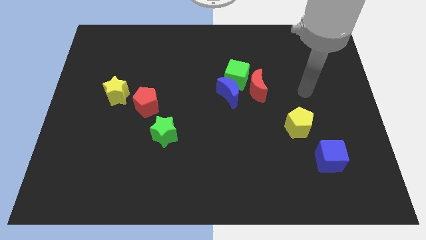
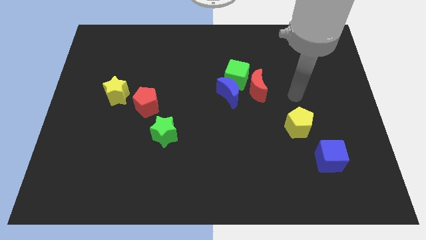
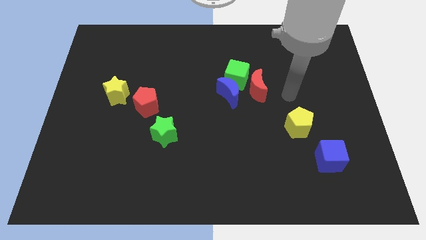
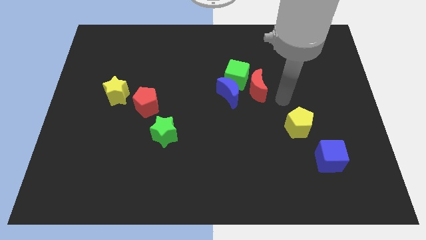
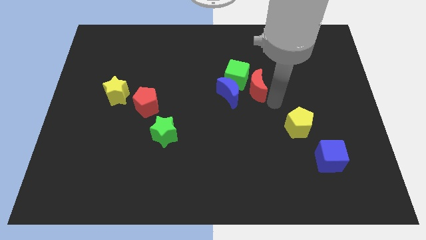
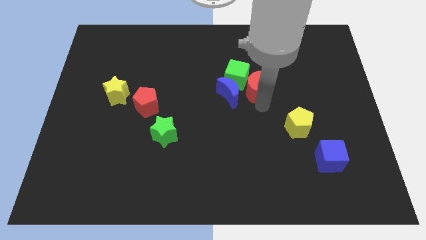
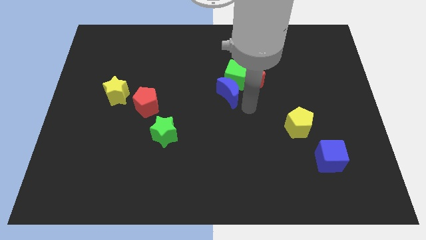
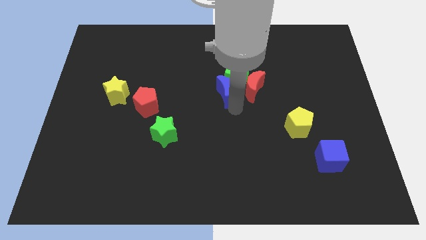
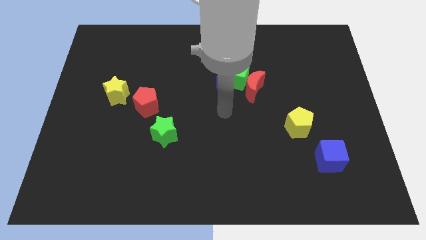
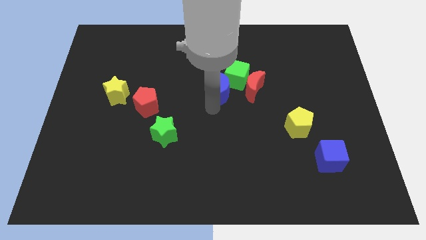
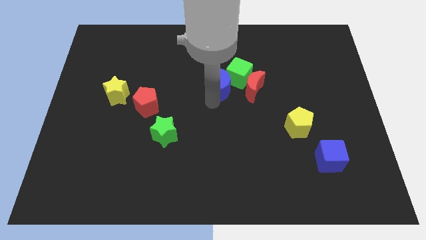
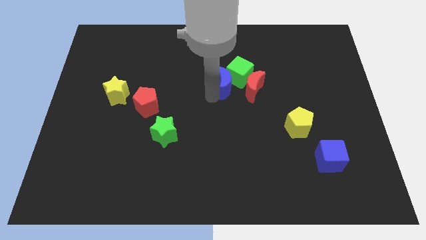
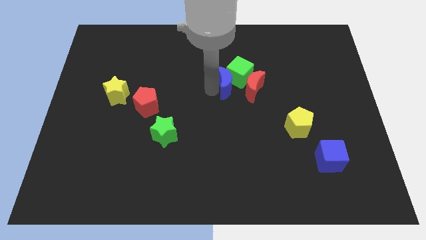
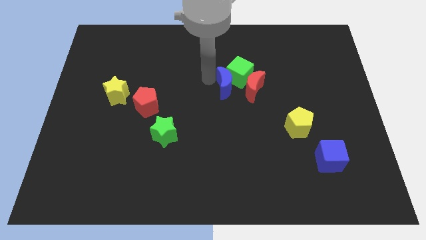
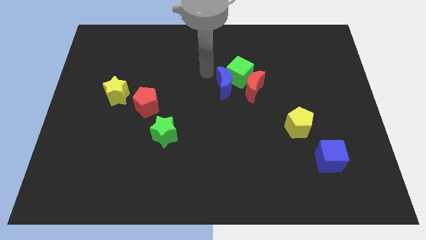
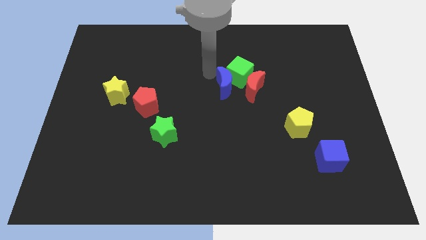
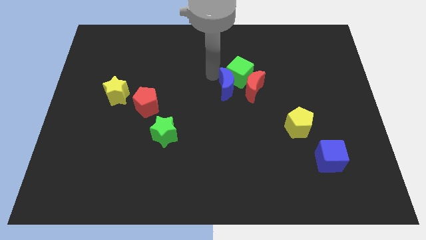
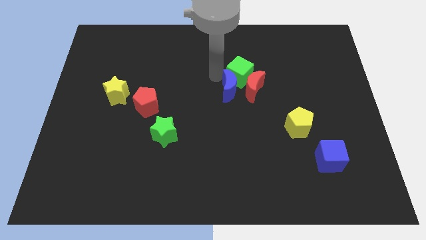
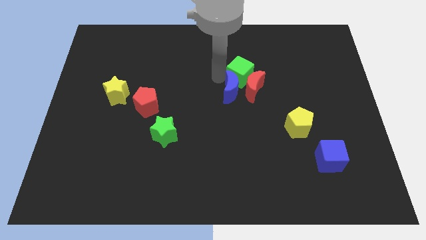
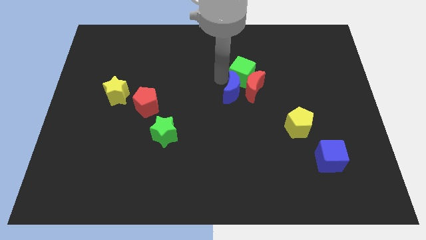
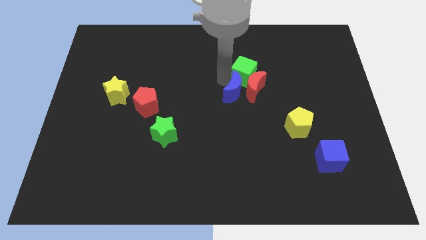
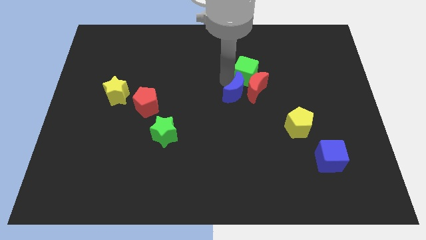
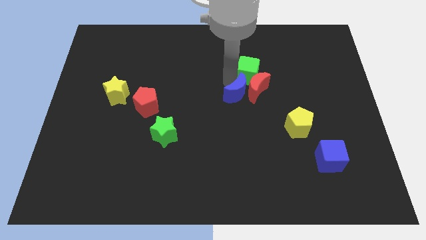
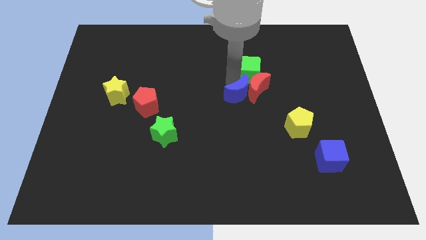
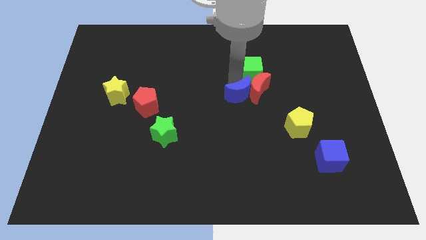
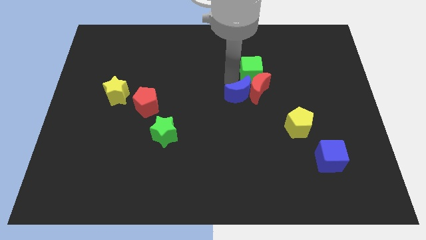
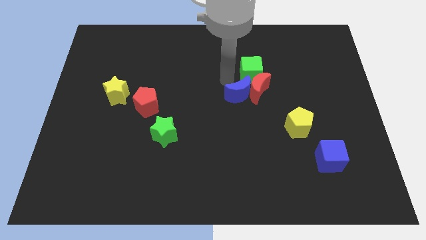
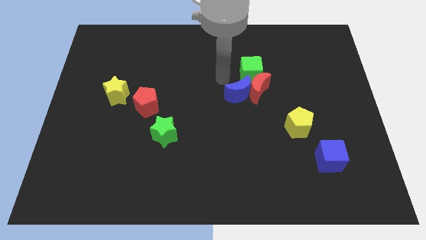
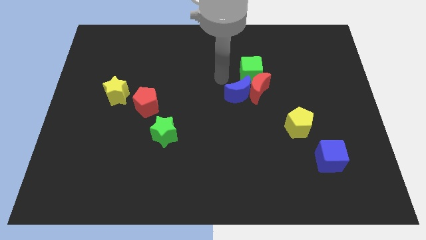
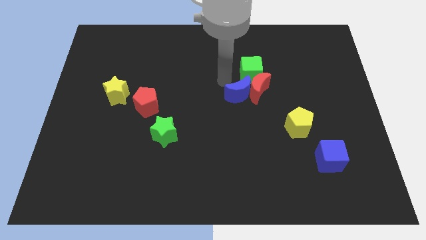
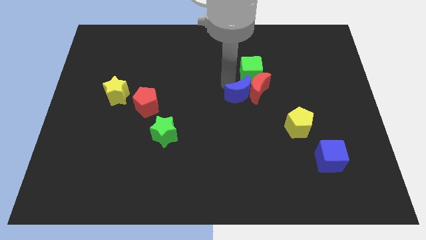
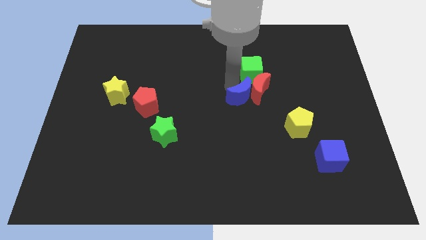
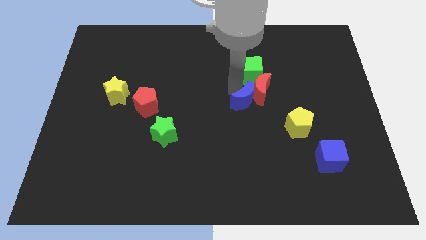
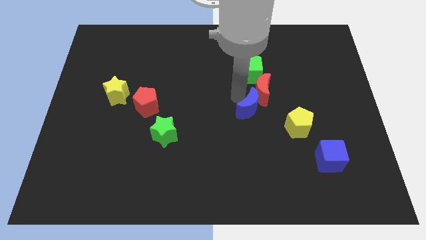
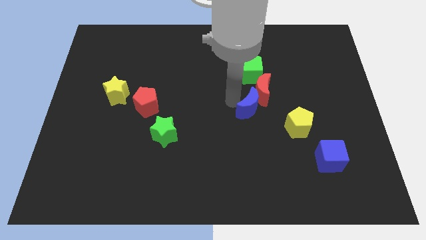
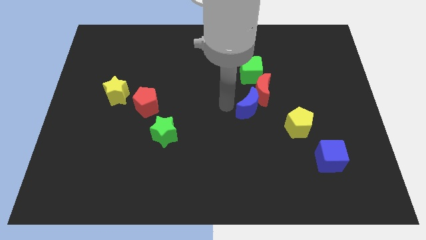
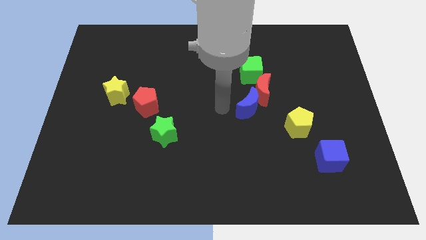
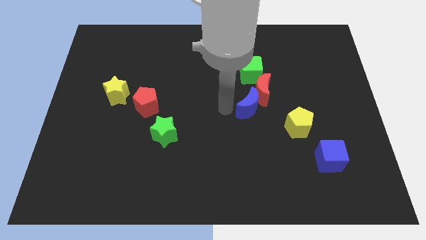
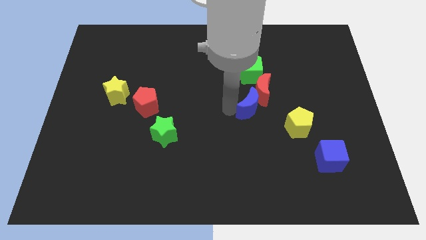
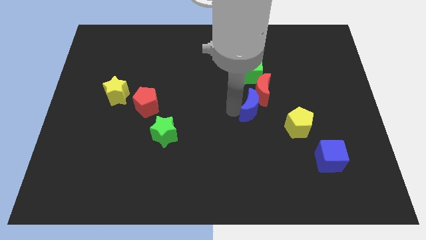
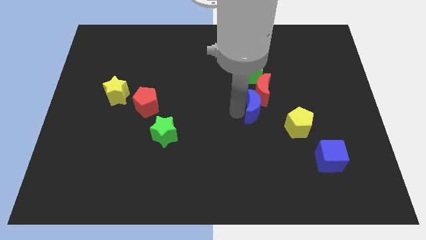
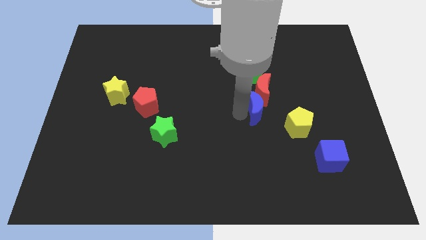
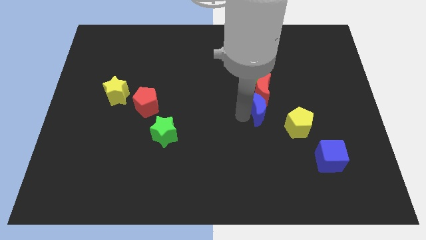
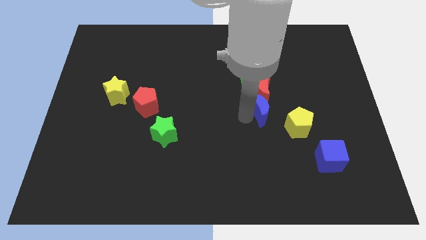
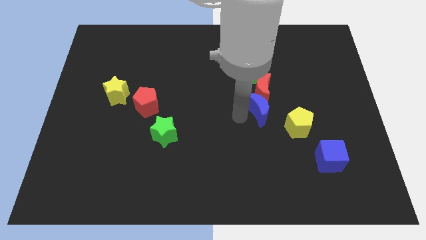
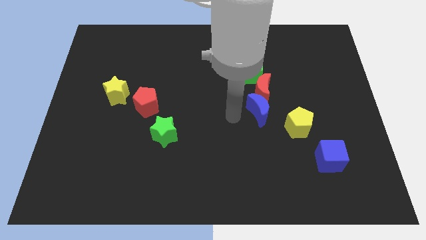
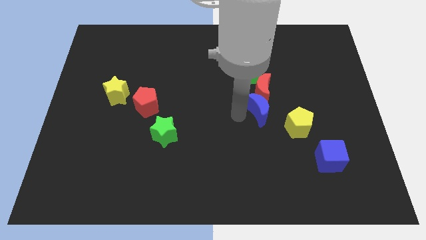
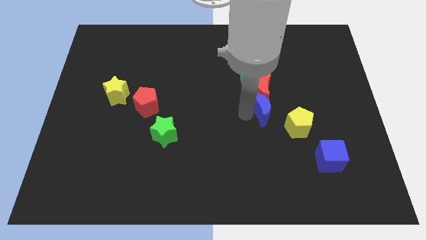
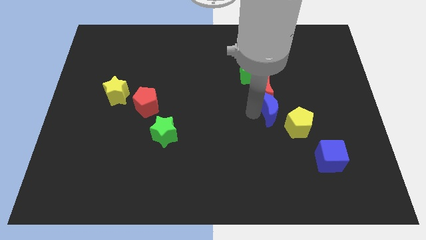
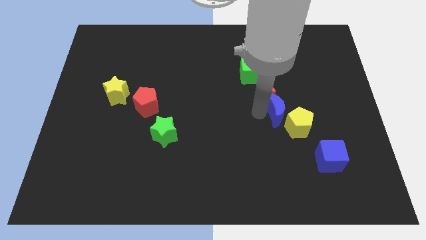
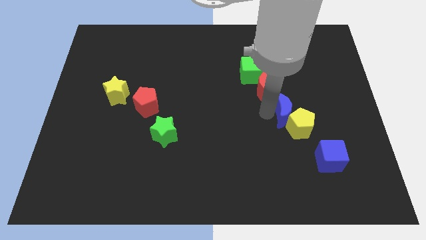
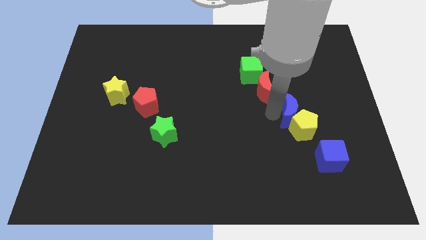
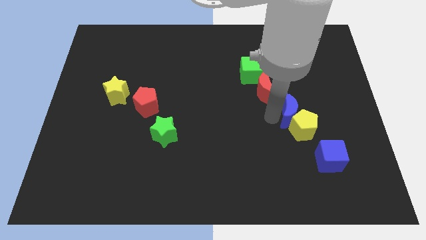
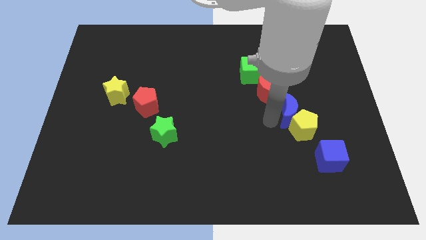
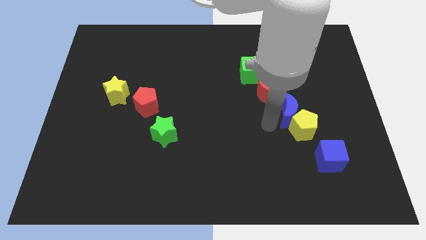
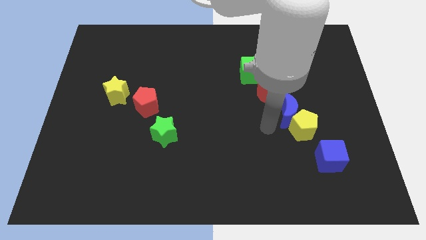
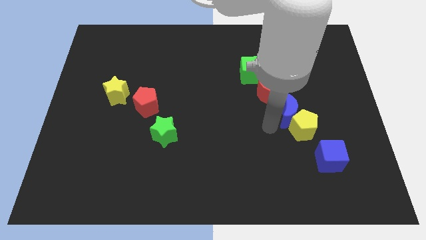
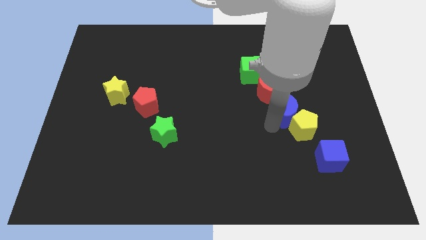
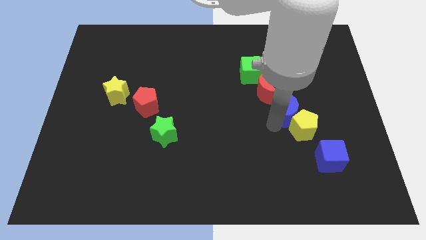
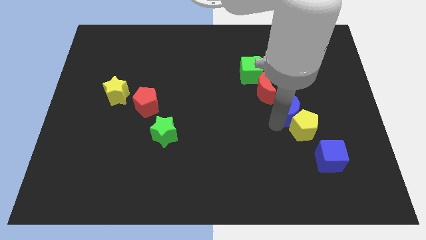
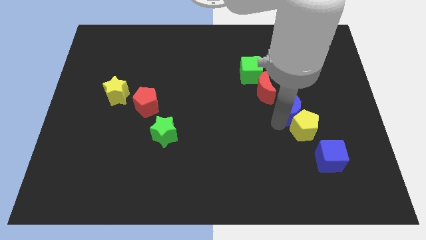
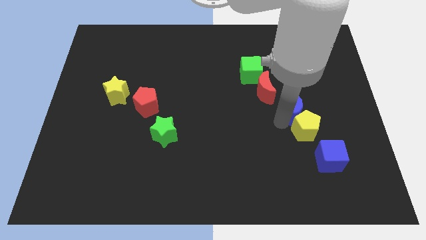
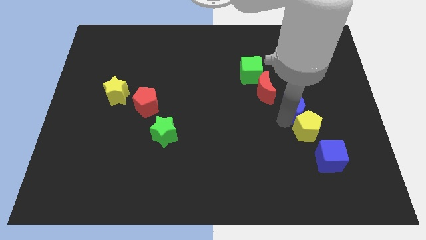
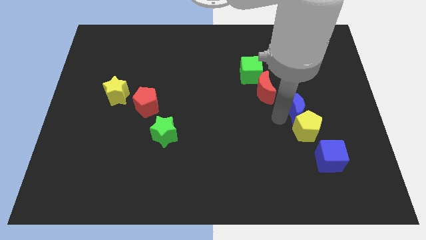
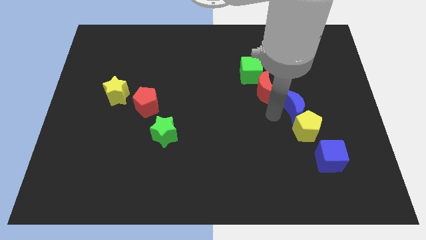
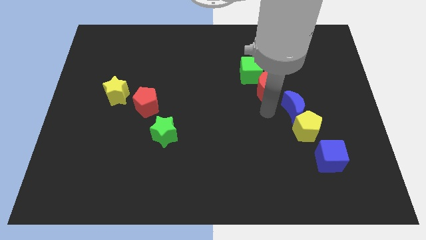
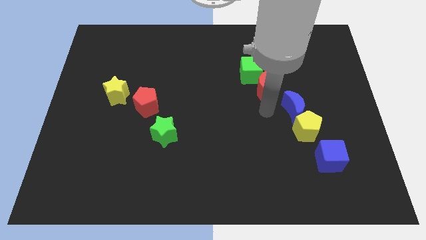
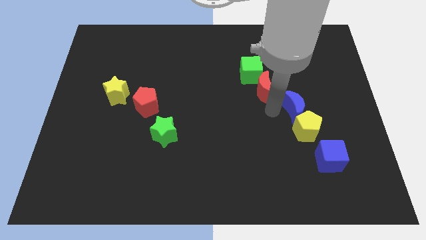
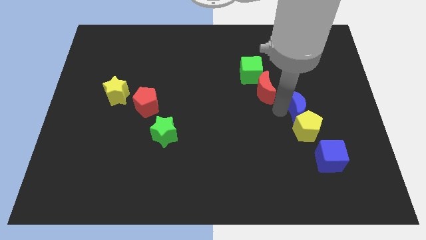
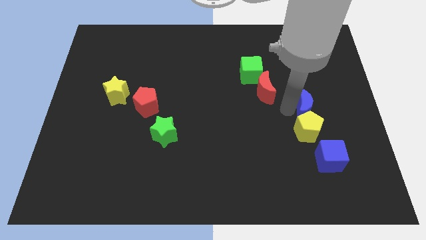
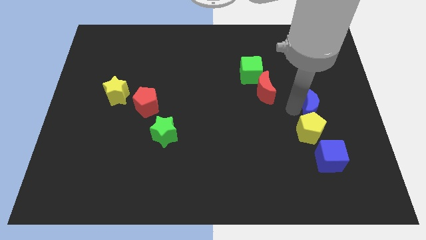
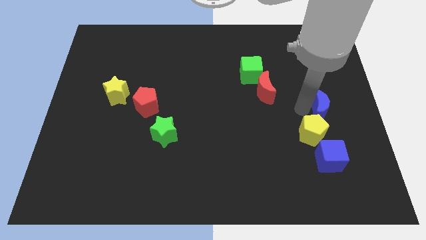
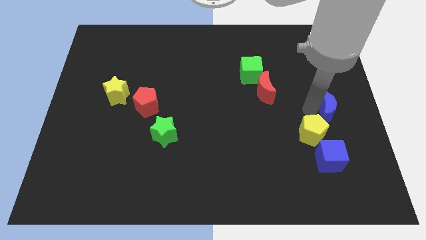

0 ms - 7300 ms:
put the blue moon to the center right
